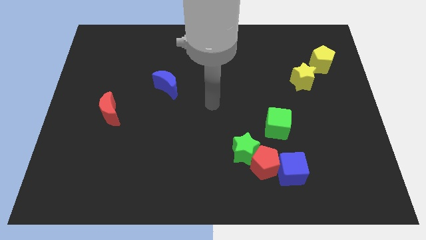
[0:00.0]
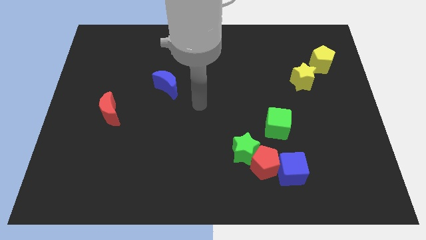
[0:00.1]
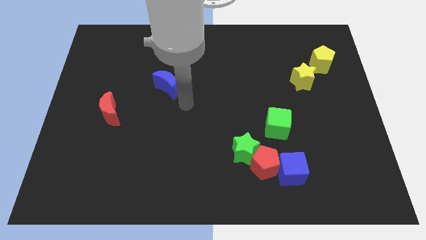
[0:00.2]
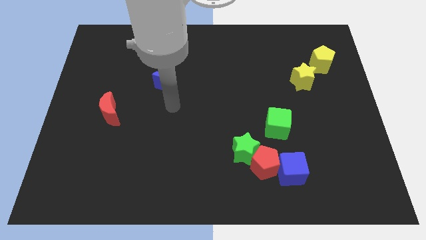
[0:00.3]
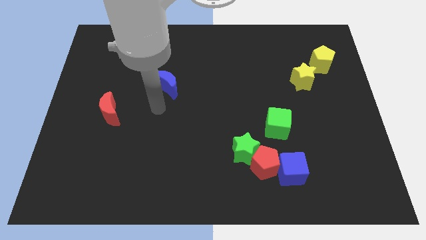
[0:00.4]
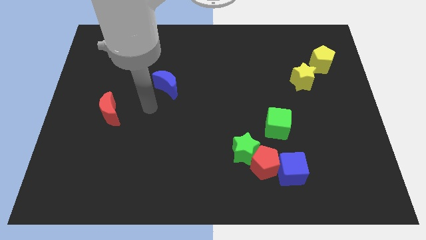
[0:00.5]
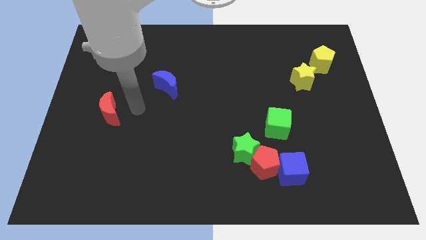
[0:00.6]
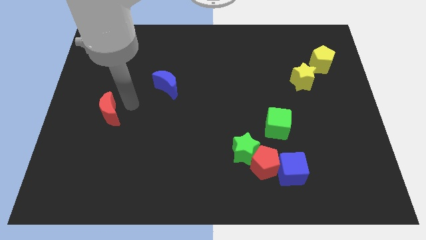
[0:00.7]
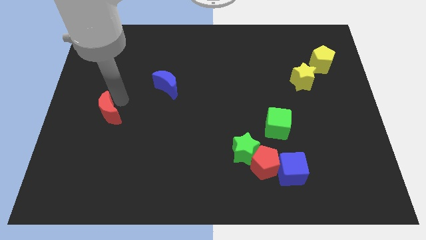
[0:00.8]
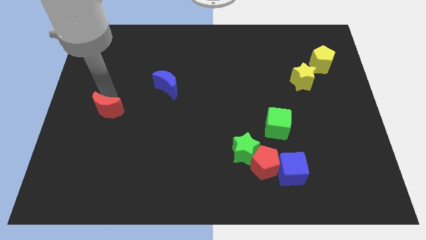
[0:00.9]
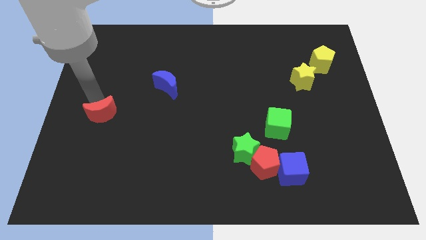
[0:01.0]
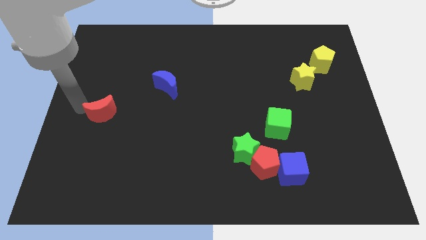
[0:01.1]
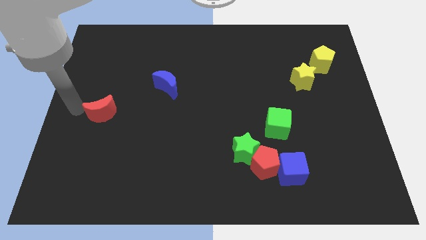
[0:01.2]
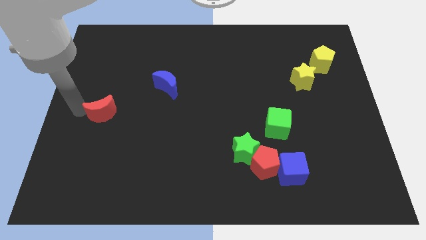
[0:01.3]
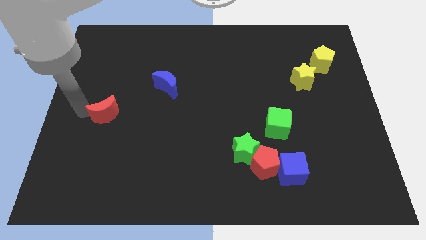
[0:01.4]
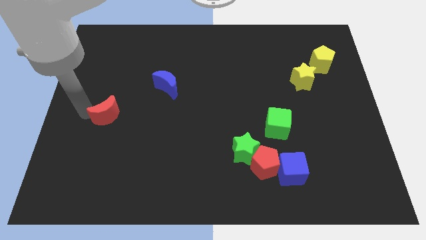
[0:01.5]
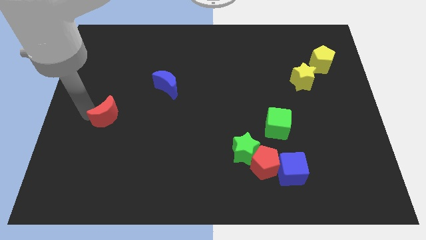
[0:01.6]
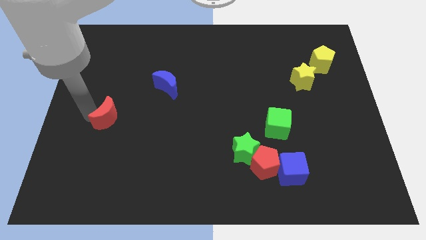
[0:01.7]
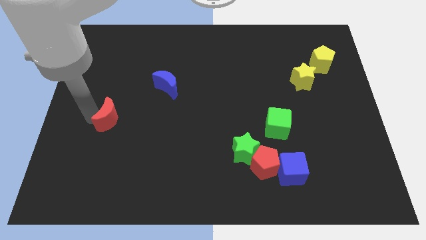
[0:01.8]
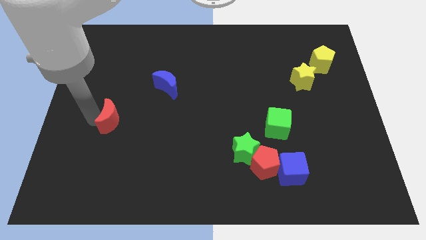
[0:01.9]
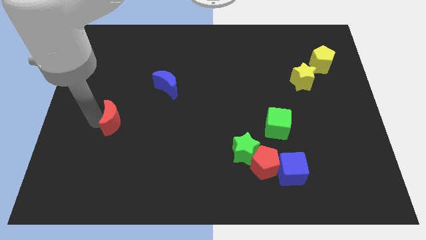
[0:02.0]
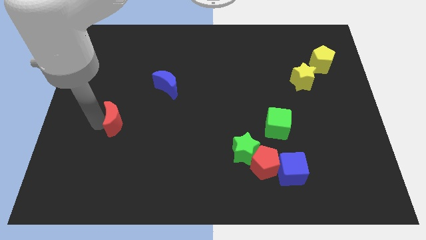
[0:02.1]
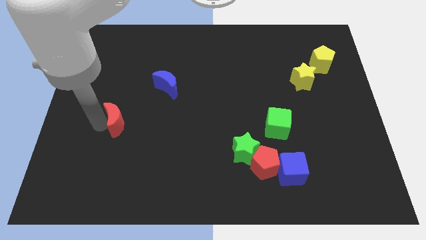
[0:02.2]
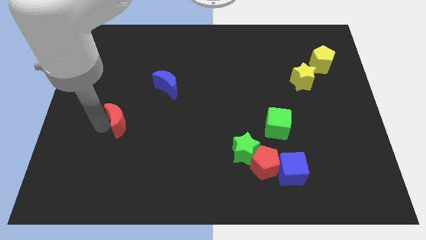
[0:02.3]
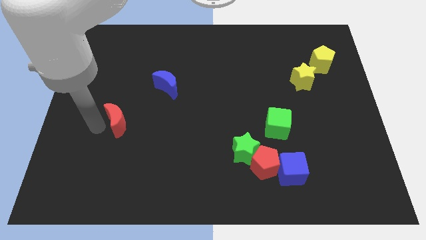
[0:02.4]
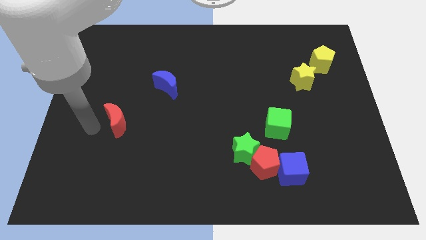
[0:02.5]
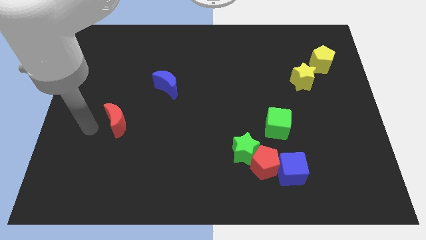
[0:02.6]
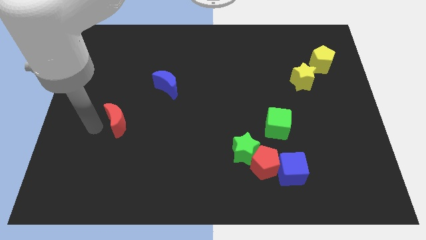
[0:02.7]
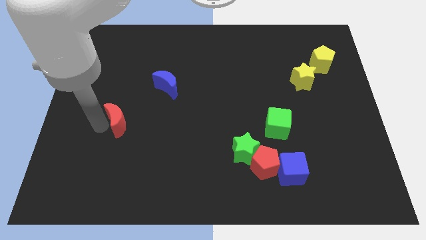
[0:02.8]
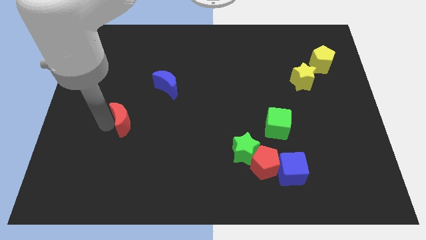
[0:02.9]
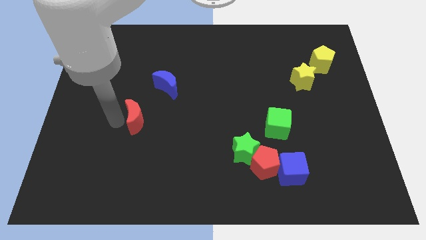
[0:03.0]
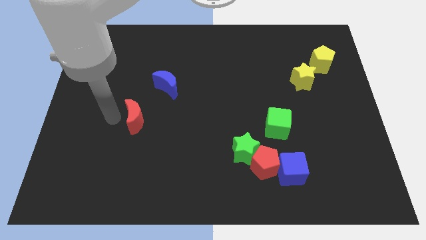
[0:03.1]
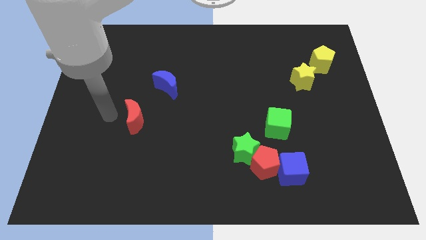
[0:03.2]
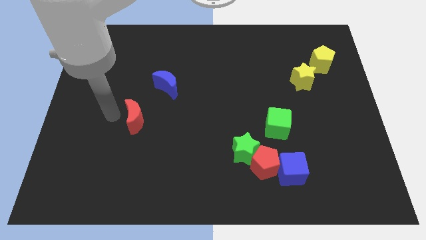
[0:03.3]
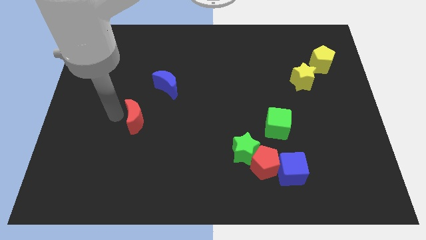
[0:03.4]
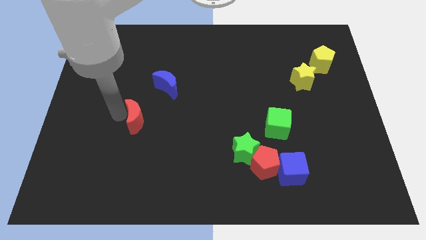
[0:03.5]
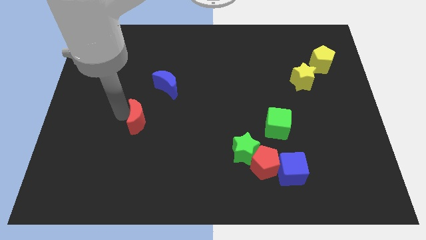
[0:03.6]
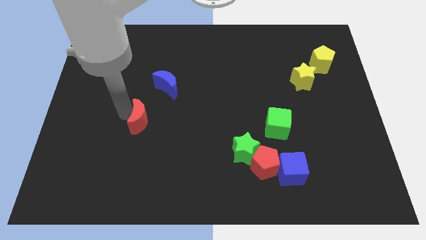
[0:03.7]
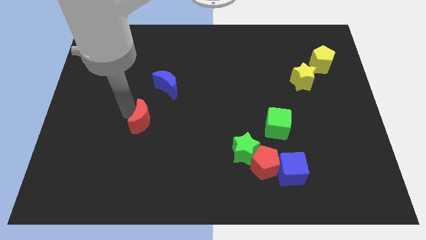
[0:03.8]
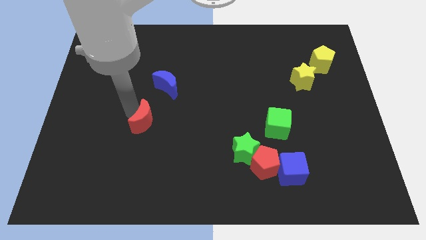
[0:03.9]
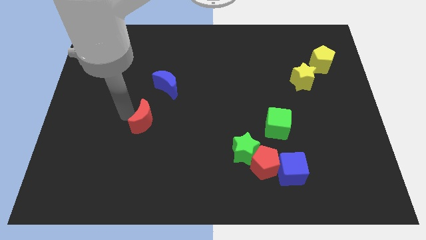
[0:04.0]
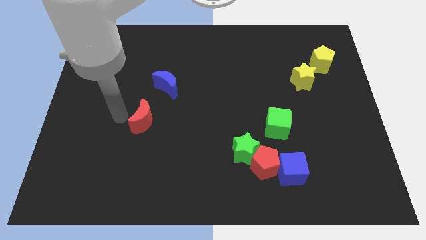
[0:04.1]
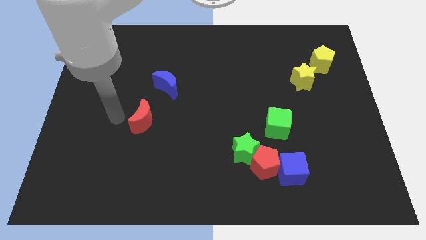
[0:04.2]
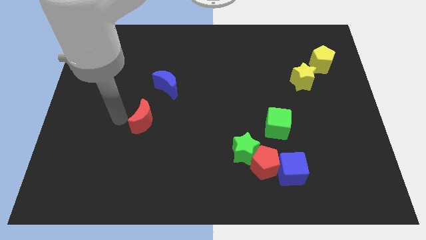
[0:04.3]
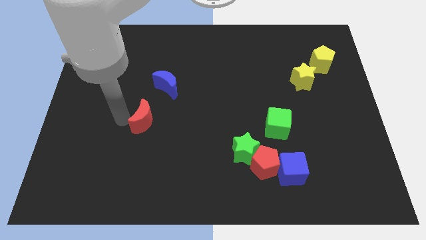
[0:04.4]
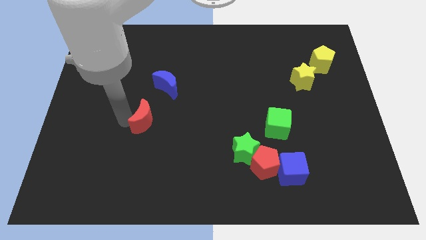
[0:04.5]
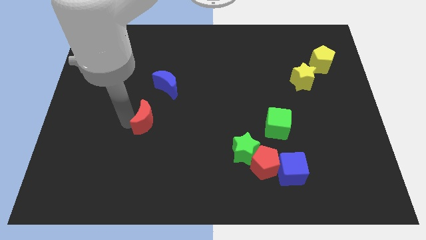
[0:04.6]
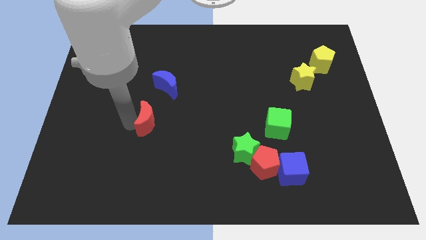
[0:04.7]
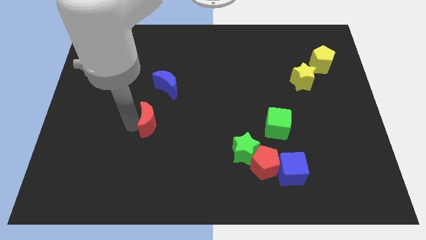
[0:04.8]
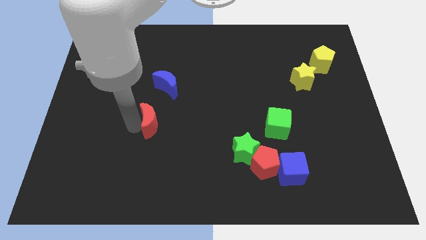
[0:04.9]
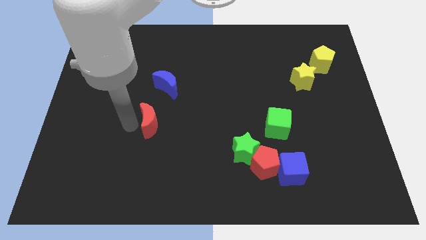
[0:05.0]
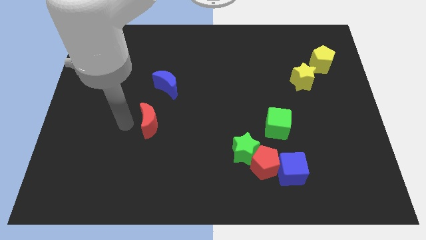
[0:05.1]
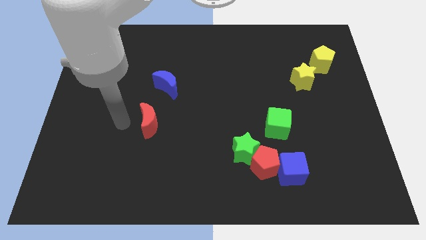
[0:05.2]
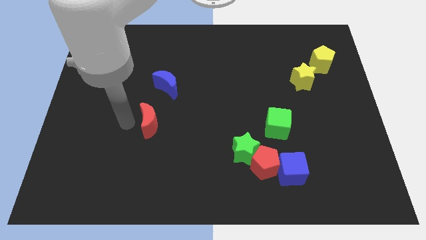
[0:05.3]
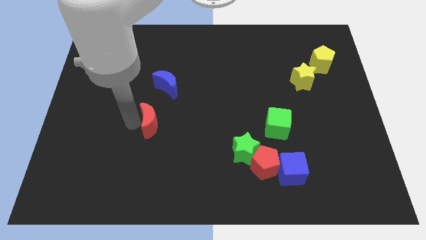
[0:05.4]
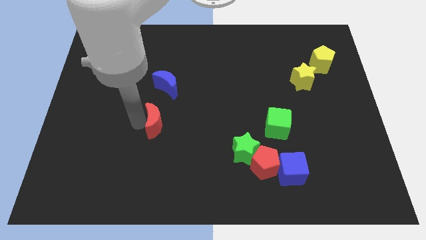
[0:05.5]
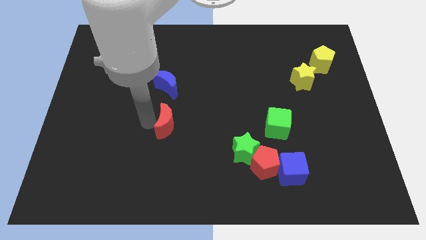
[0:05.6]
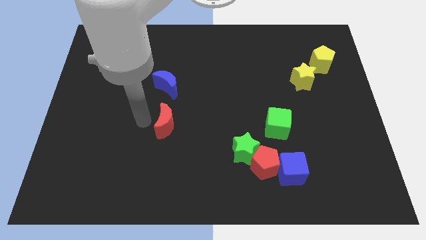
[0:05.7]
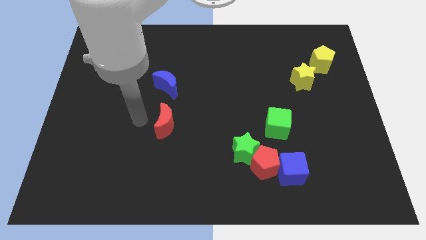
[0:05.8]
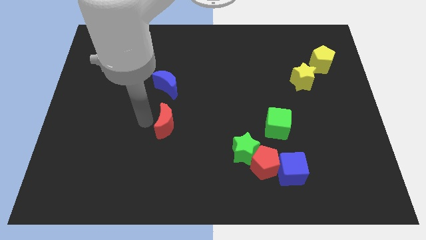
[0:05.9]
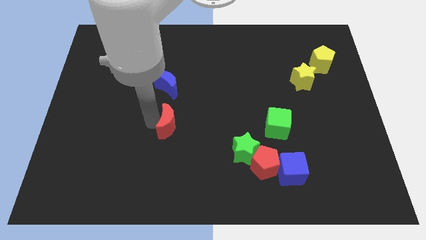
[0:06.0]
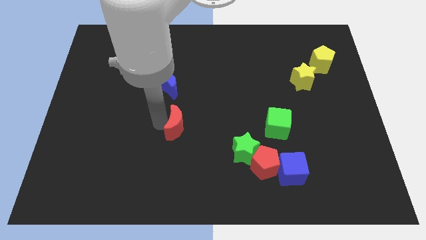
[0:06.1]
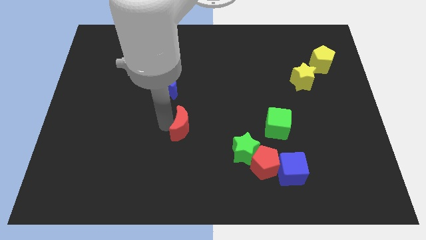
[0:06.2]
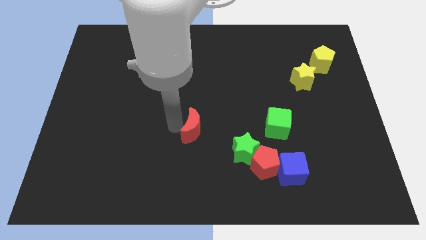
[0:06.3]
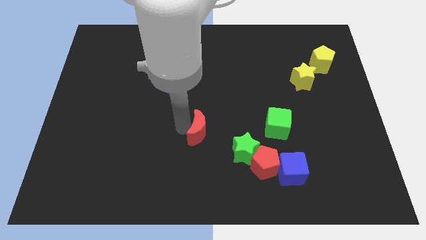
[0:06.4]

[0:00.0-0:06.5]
push the red moon to the top left side of the green star
